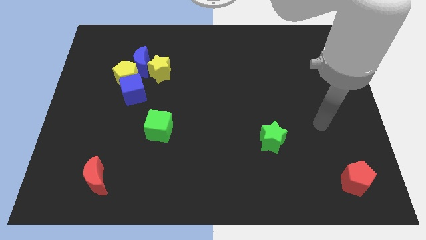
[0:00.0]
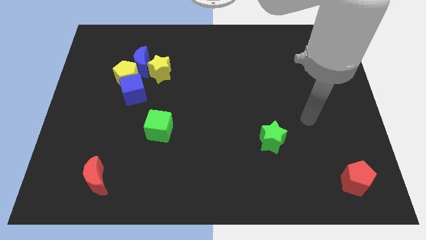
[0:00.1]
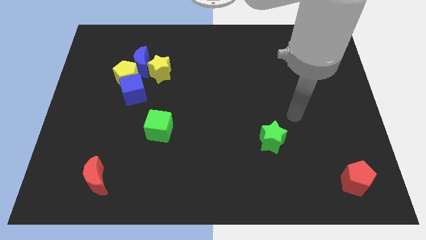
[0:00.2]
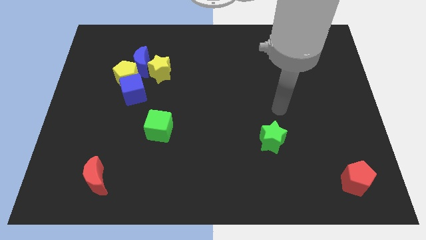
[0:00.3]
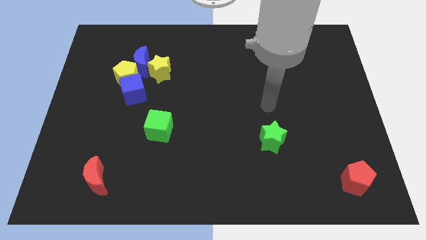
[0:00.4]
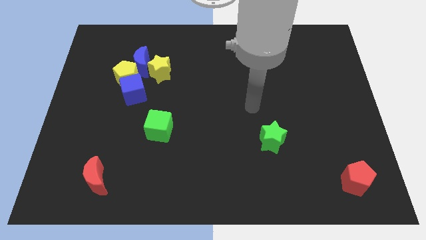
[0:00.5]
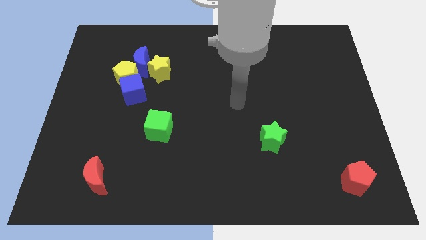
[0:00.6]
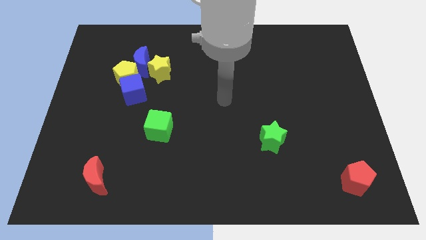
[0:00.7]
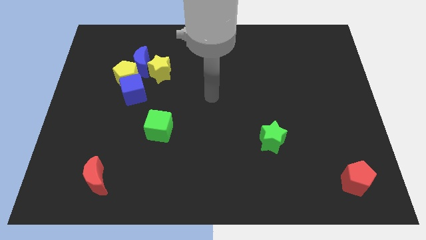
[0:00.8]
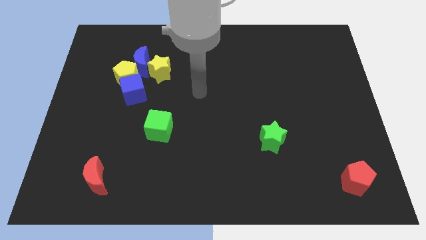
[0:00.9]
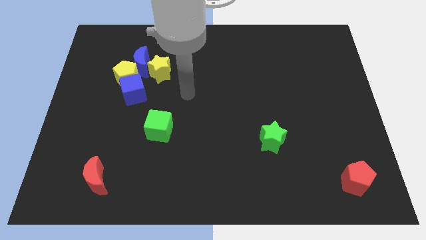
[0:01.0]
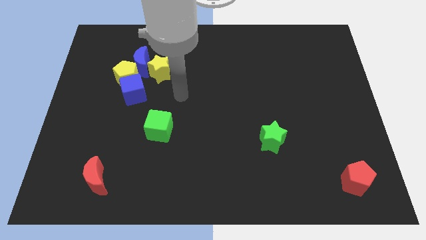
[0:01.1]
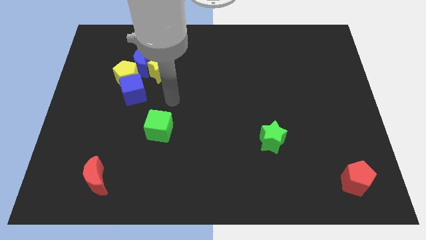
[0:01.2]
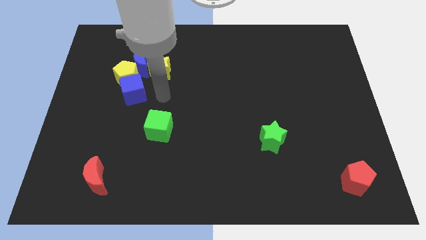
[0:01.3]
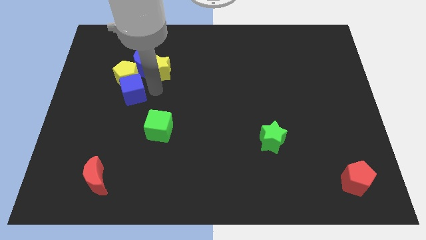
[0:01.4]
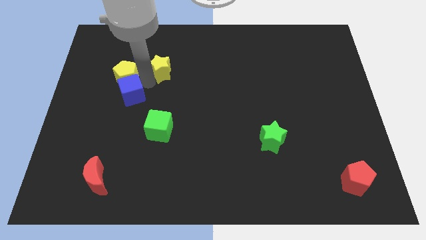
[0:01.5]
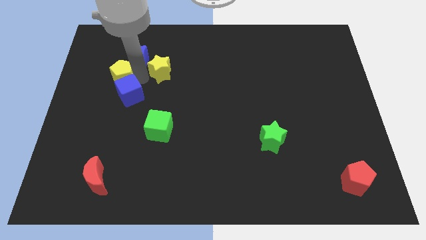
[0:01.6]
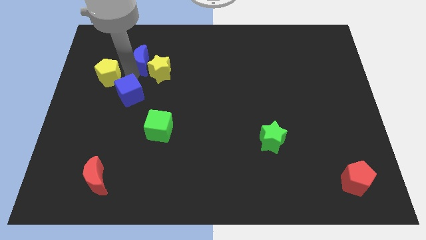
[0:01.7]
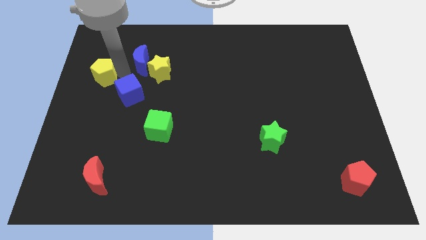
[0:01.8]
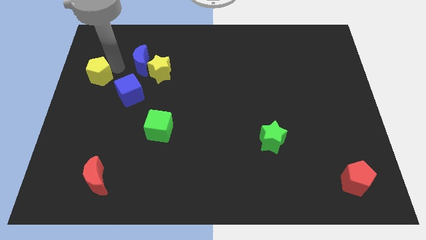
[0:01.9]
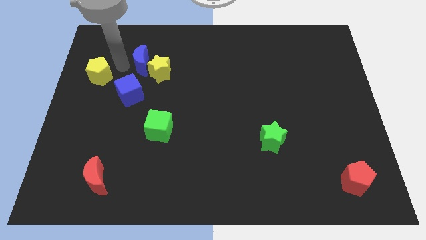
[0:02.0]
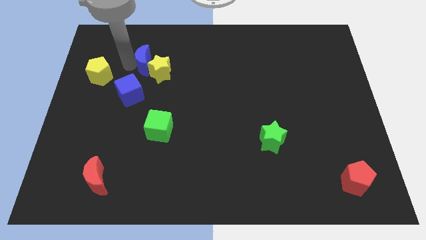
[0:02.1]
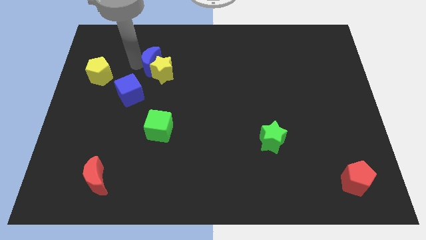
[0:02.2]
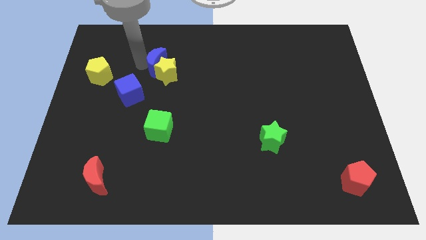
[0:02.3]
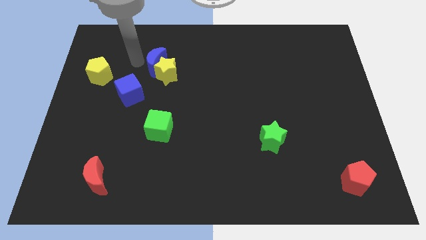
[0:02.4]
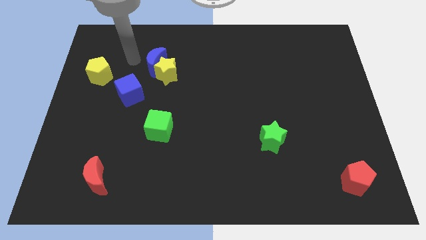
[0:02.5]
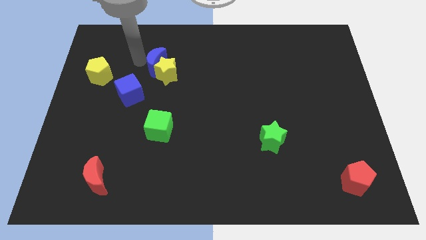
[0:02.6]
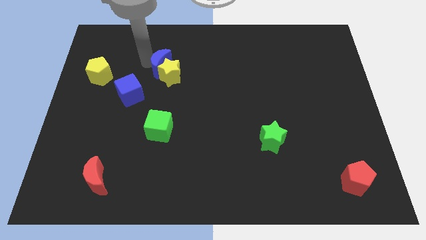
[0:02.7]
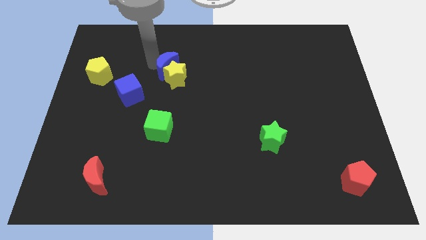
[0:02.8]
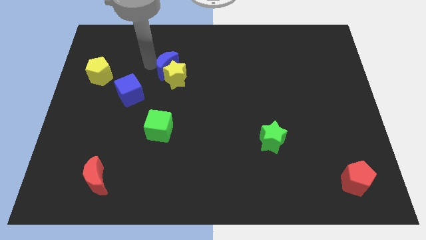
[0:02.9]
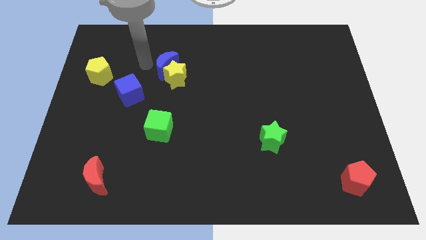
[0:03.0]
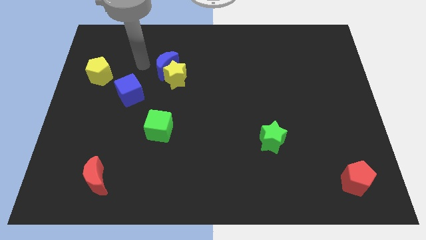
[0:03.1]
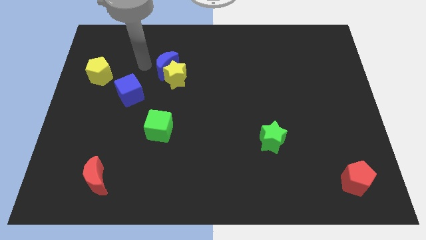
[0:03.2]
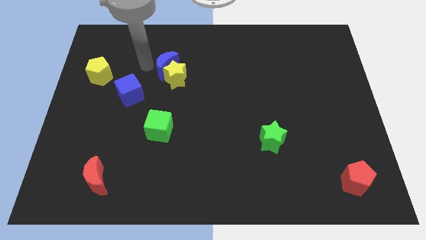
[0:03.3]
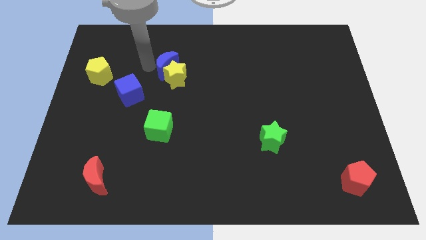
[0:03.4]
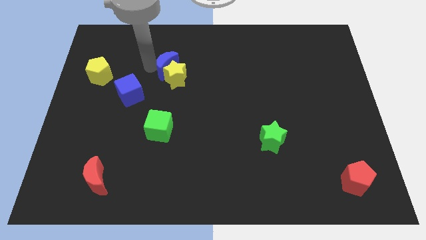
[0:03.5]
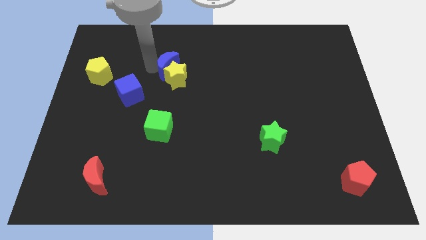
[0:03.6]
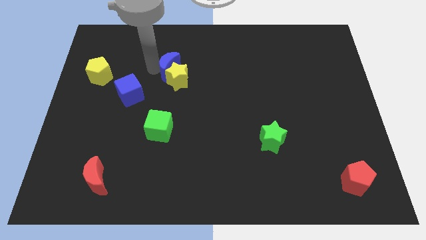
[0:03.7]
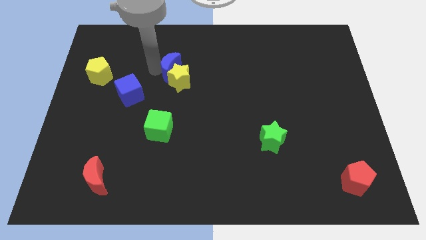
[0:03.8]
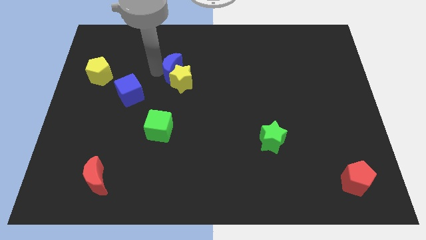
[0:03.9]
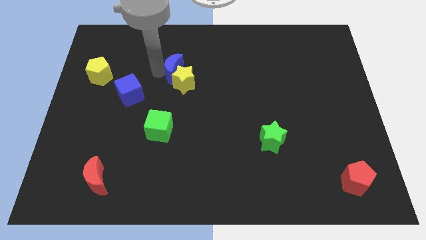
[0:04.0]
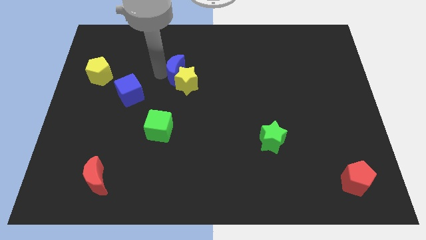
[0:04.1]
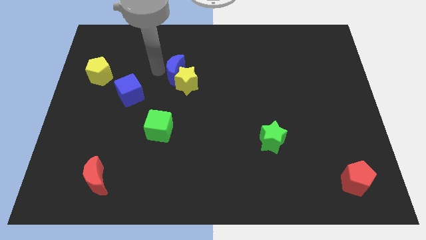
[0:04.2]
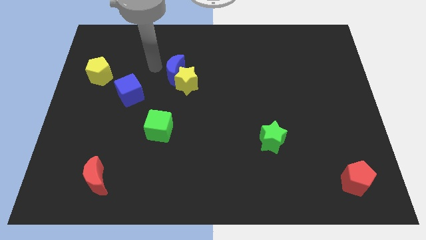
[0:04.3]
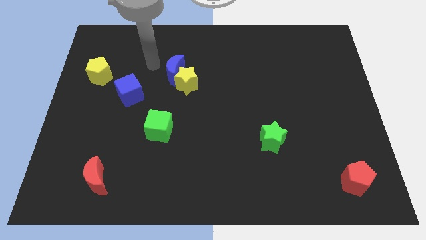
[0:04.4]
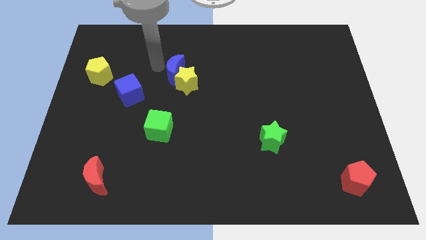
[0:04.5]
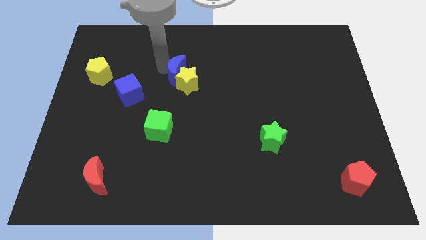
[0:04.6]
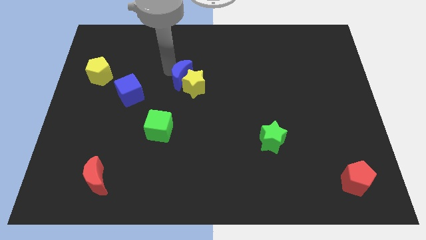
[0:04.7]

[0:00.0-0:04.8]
push the blue moon to the center

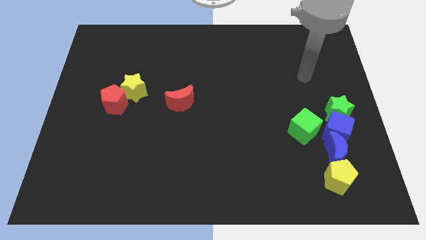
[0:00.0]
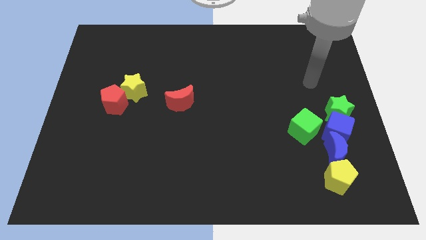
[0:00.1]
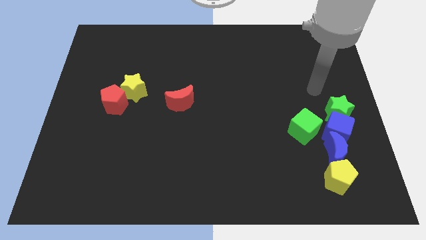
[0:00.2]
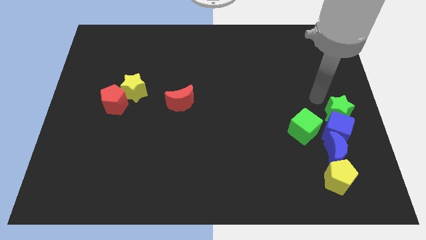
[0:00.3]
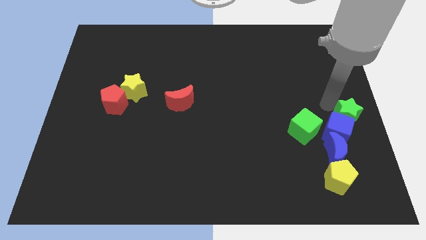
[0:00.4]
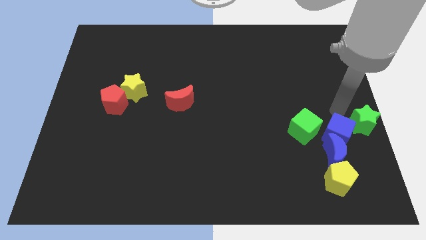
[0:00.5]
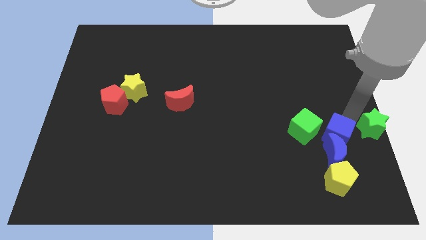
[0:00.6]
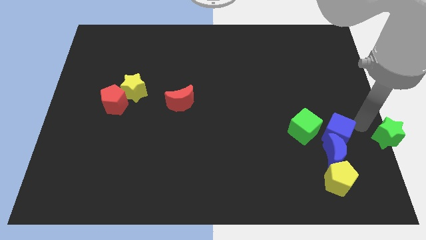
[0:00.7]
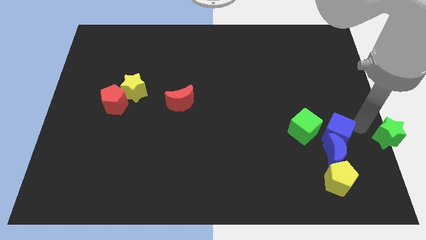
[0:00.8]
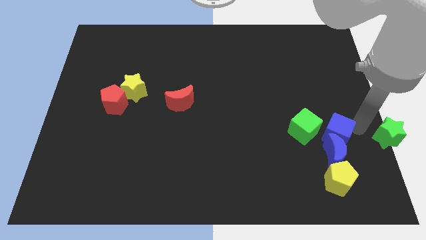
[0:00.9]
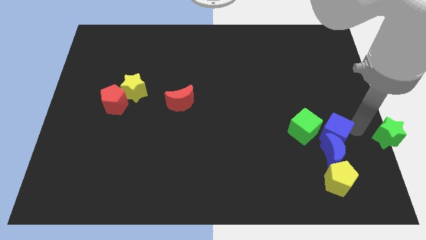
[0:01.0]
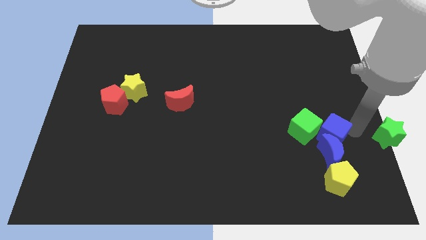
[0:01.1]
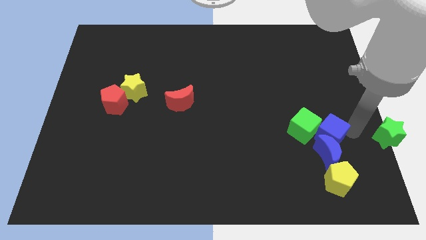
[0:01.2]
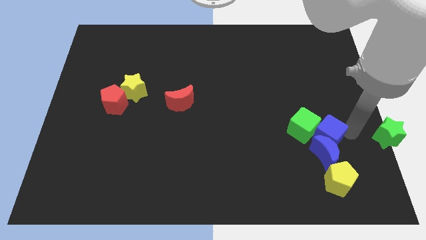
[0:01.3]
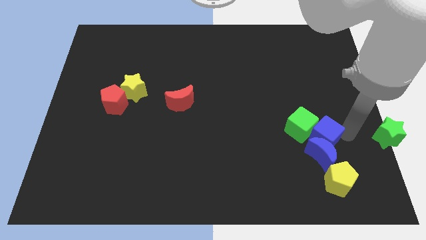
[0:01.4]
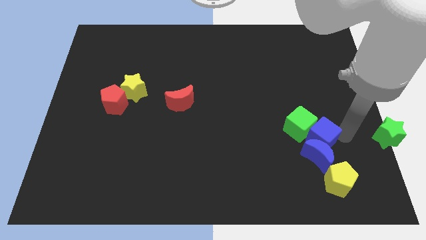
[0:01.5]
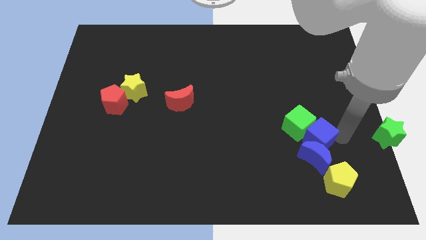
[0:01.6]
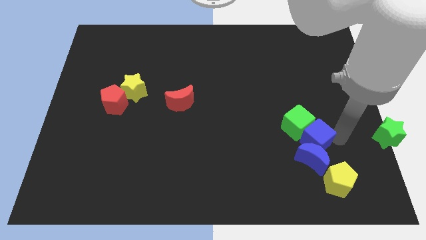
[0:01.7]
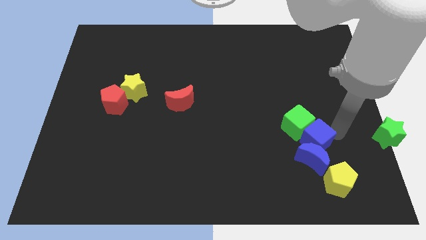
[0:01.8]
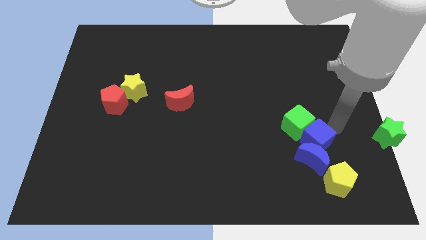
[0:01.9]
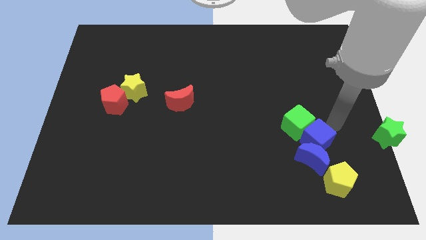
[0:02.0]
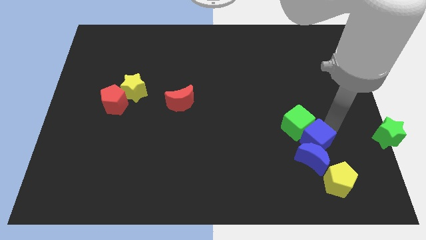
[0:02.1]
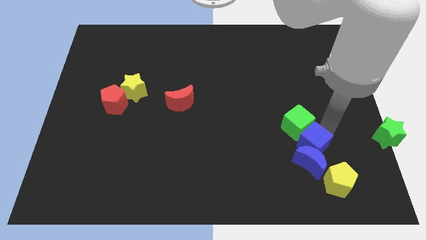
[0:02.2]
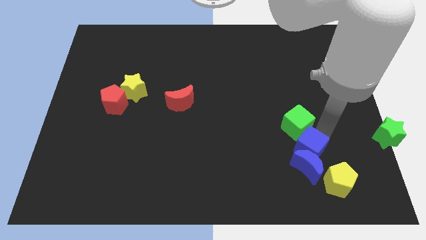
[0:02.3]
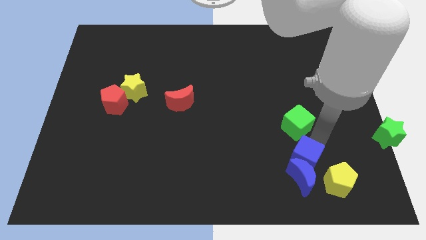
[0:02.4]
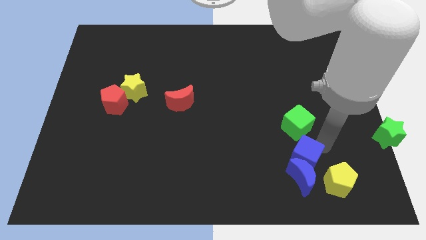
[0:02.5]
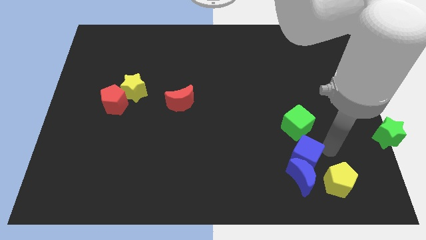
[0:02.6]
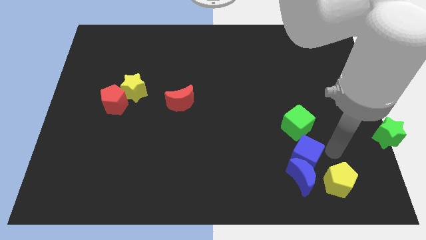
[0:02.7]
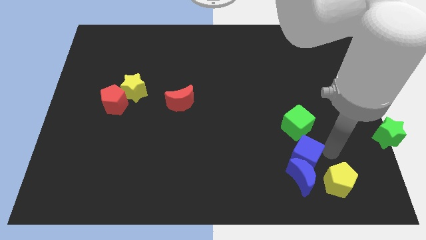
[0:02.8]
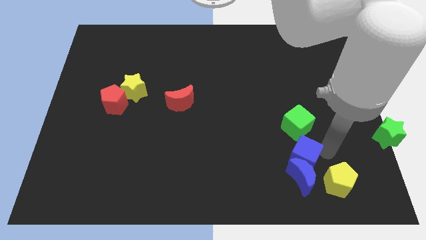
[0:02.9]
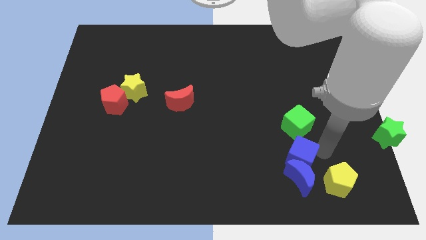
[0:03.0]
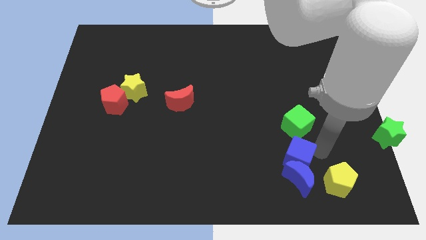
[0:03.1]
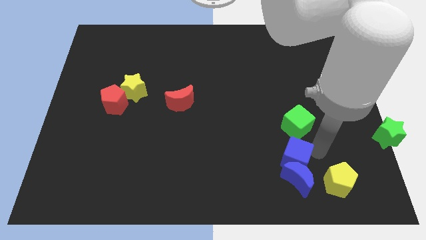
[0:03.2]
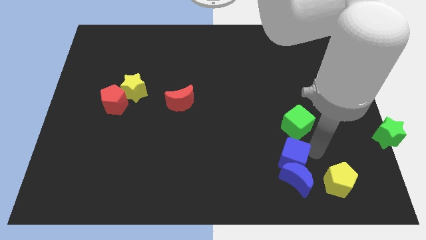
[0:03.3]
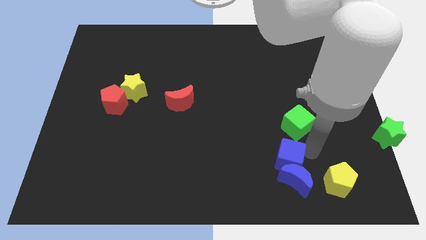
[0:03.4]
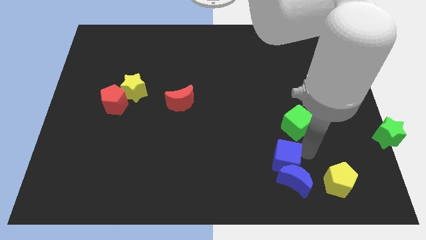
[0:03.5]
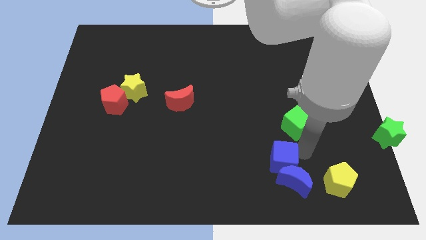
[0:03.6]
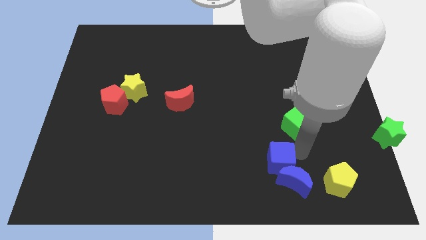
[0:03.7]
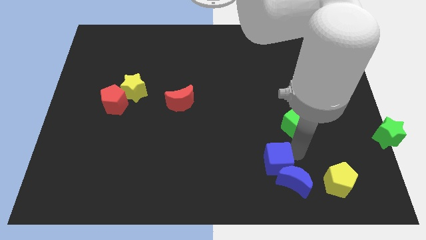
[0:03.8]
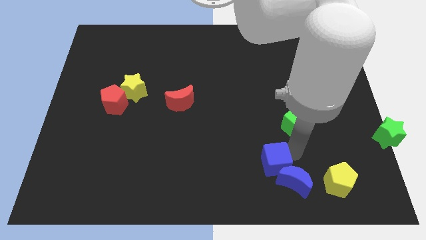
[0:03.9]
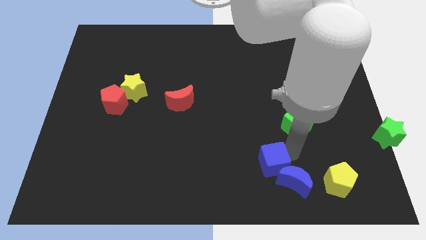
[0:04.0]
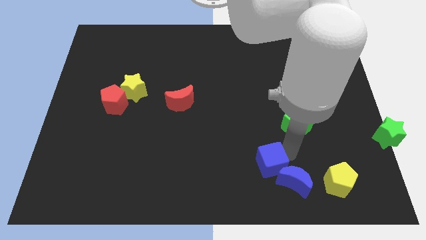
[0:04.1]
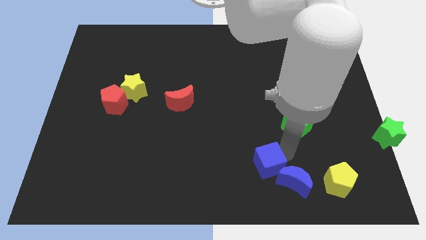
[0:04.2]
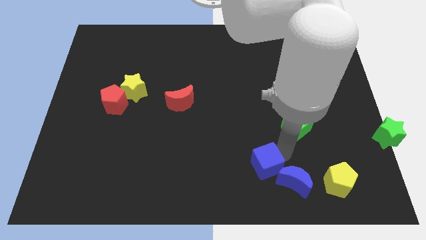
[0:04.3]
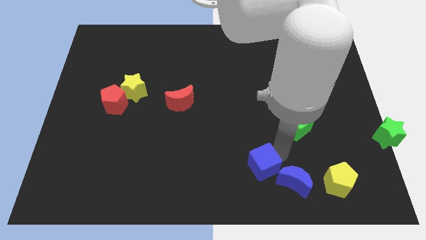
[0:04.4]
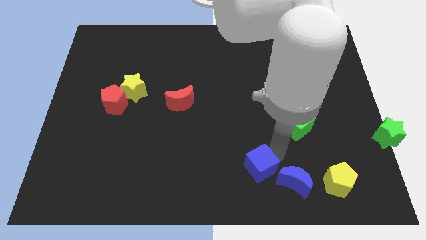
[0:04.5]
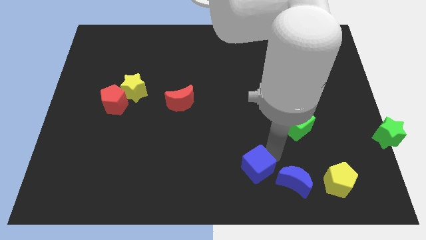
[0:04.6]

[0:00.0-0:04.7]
push the blue cube to the bottom side
